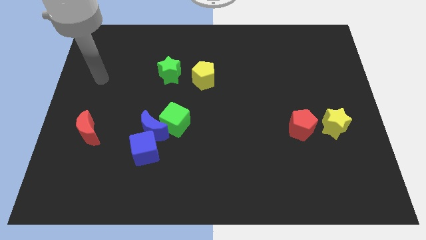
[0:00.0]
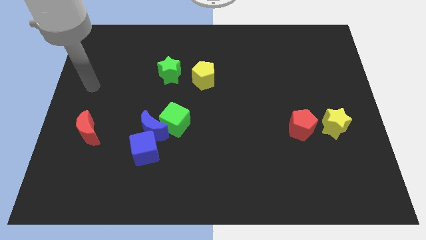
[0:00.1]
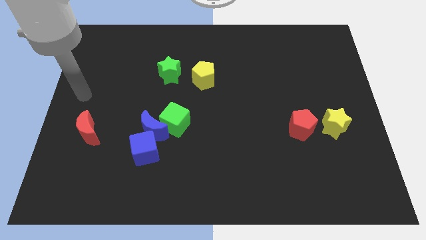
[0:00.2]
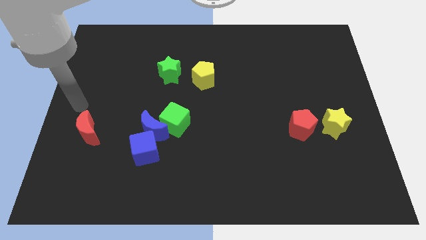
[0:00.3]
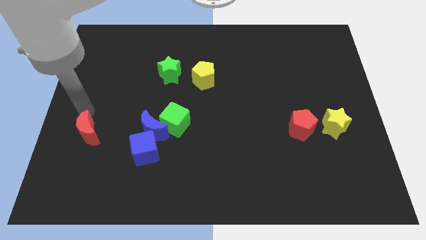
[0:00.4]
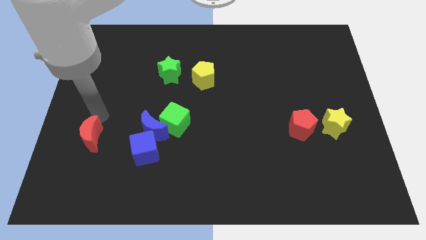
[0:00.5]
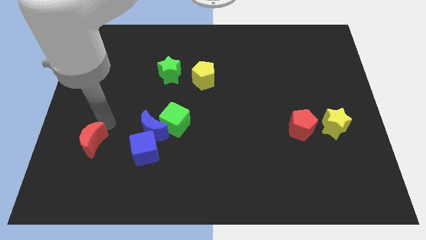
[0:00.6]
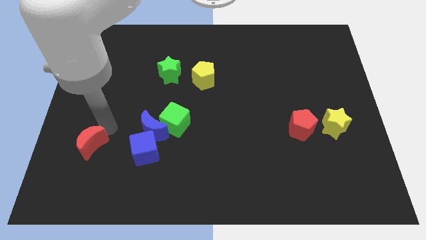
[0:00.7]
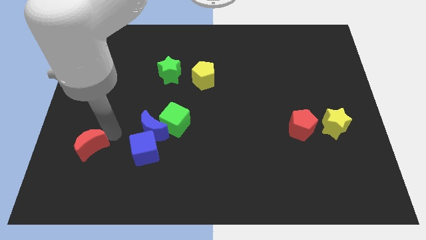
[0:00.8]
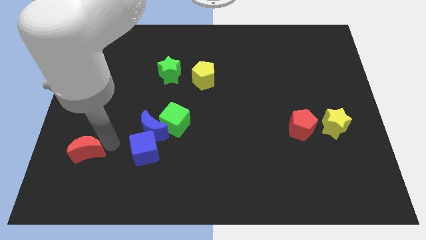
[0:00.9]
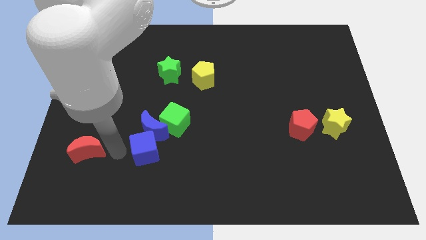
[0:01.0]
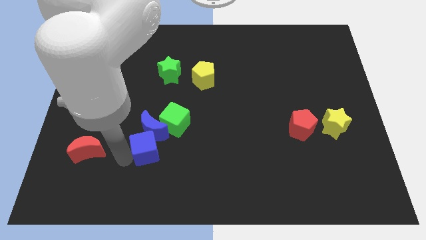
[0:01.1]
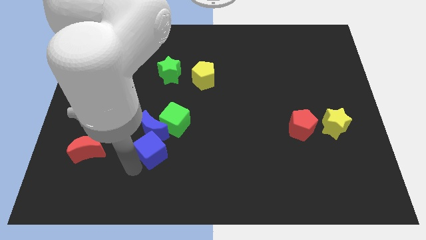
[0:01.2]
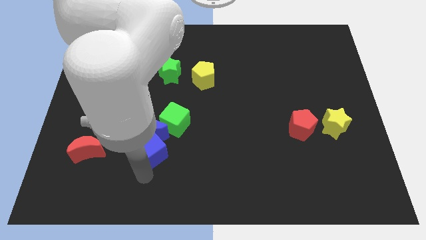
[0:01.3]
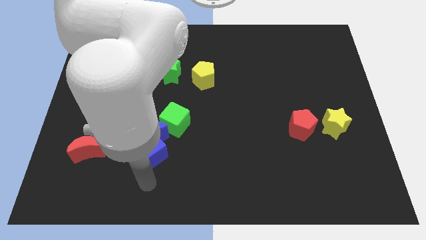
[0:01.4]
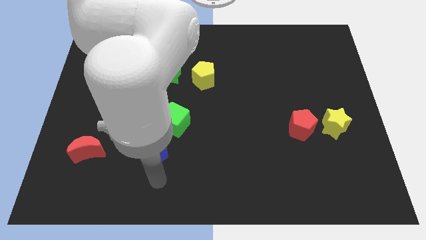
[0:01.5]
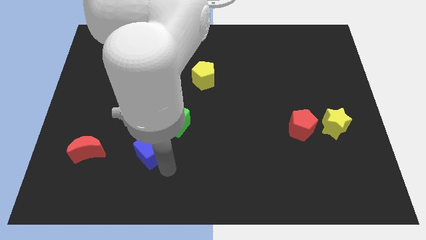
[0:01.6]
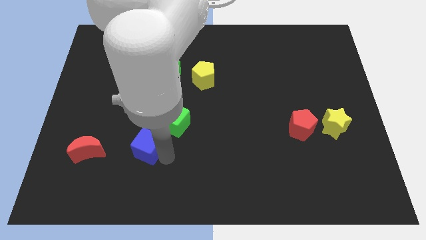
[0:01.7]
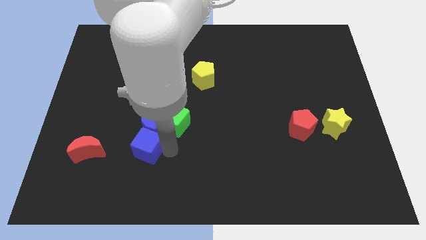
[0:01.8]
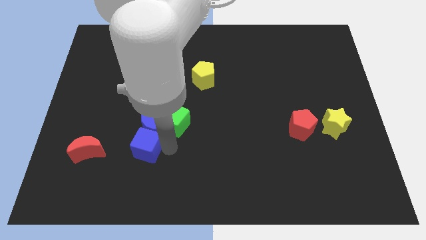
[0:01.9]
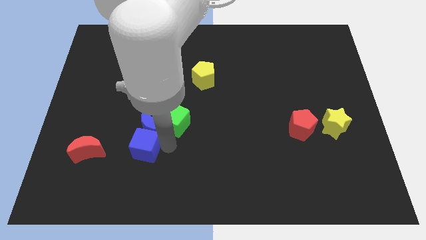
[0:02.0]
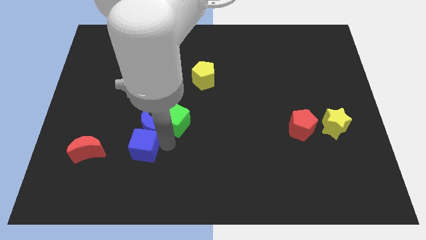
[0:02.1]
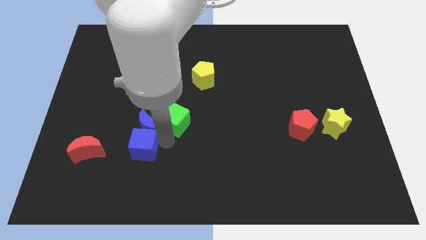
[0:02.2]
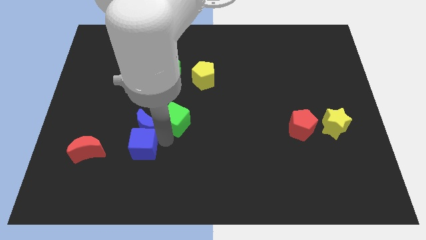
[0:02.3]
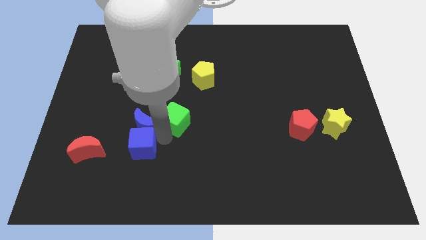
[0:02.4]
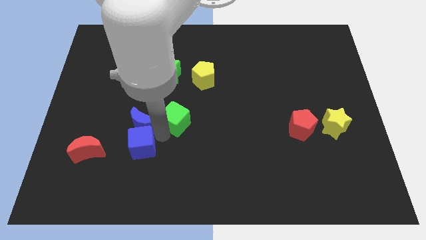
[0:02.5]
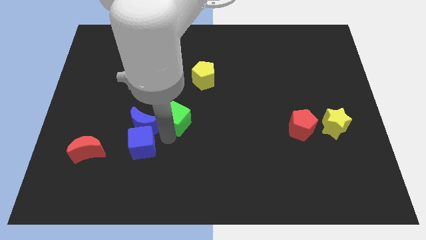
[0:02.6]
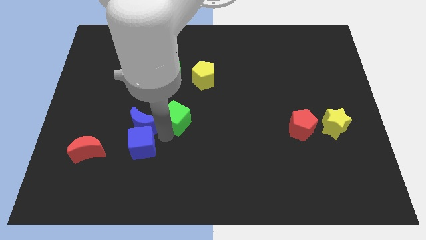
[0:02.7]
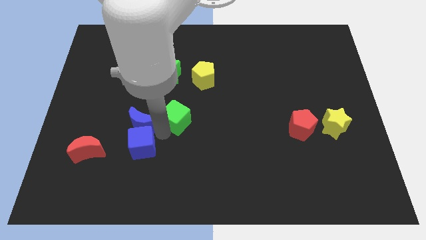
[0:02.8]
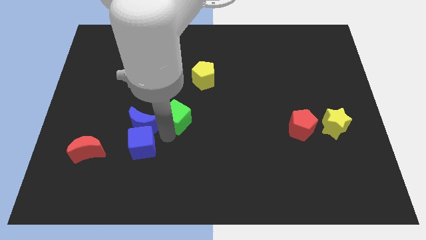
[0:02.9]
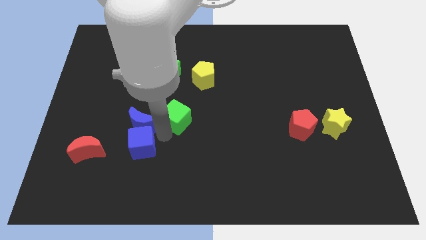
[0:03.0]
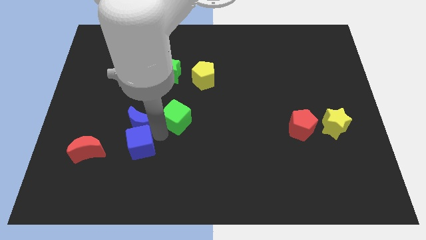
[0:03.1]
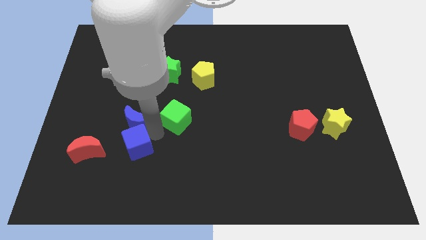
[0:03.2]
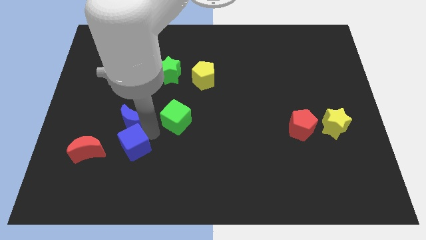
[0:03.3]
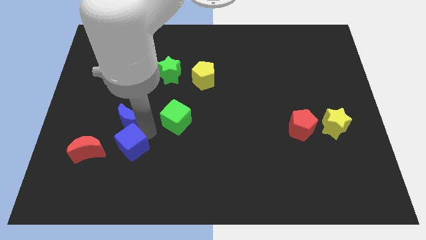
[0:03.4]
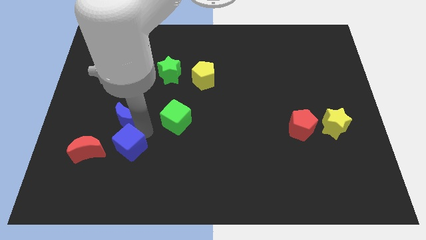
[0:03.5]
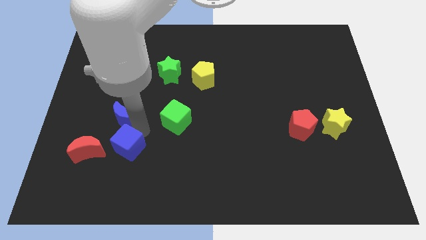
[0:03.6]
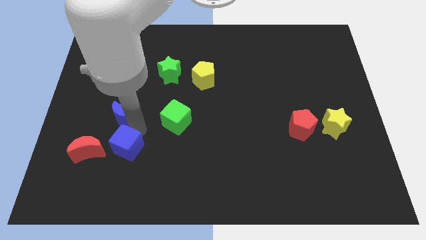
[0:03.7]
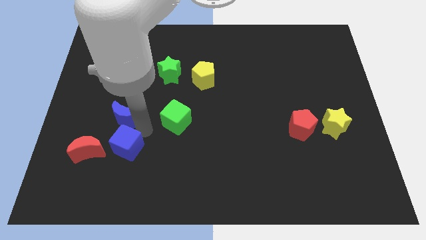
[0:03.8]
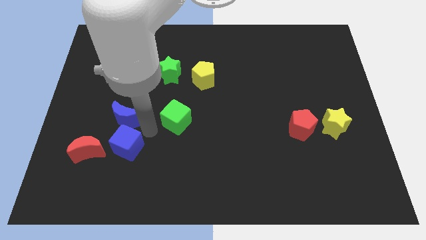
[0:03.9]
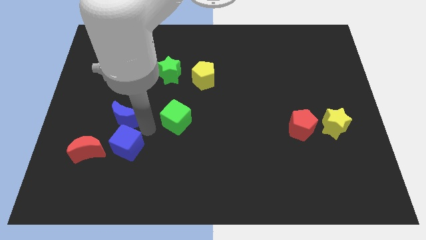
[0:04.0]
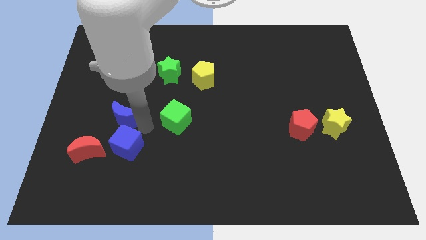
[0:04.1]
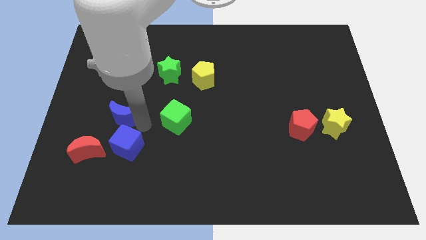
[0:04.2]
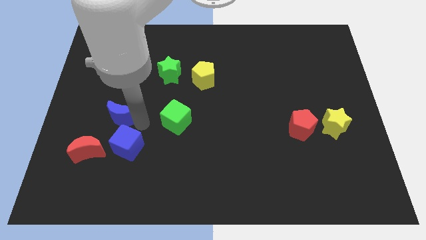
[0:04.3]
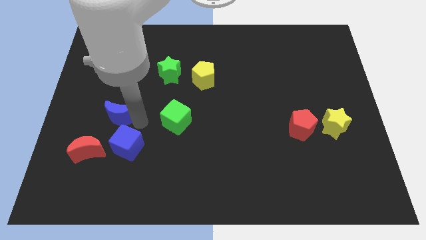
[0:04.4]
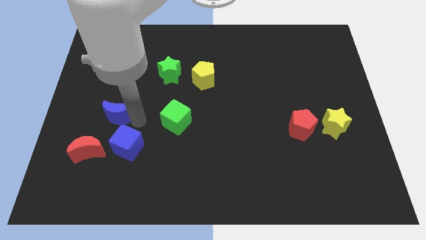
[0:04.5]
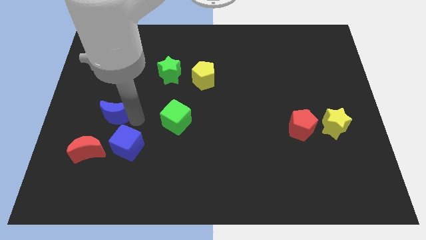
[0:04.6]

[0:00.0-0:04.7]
separate the blue moon from the green cube and blue cube

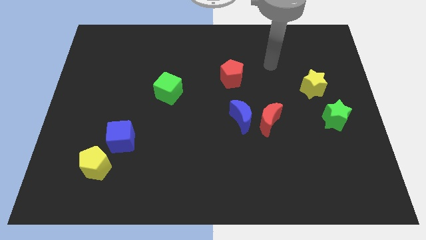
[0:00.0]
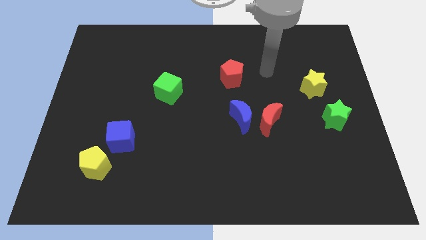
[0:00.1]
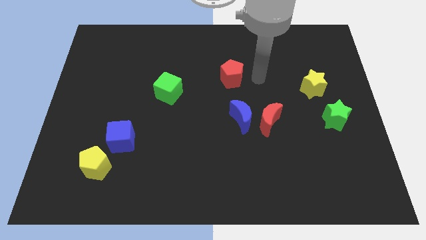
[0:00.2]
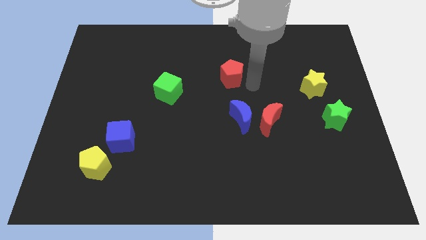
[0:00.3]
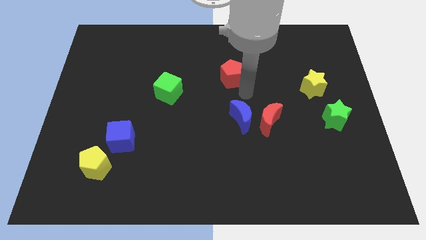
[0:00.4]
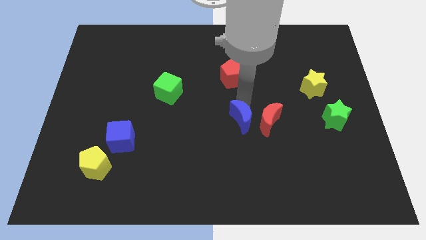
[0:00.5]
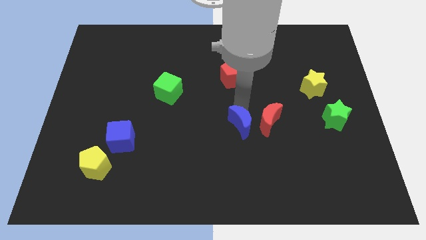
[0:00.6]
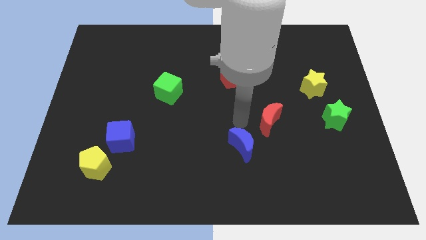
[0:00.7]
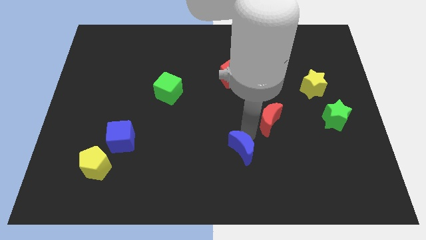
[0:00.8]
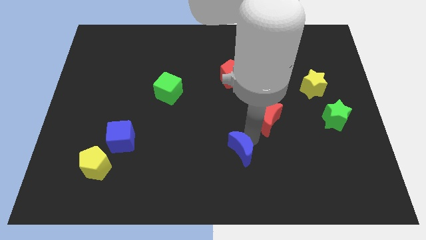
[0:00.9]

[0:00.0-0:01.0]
separate the red moon from the blue moon

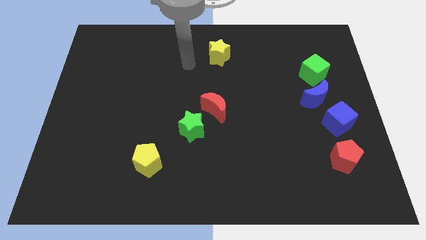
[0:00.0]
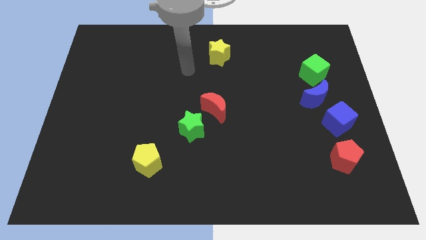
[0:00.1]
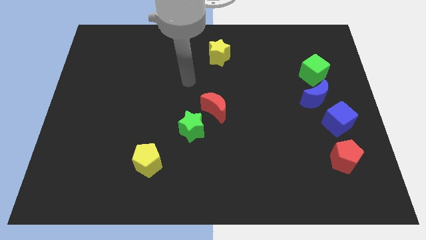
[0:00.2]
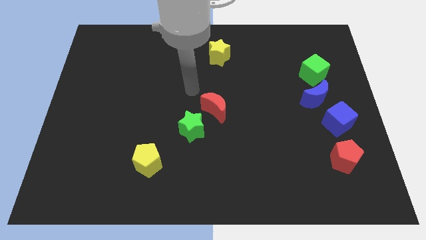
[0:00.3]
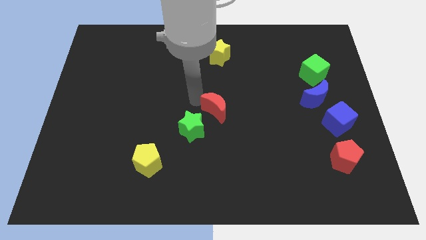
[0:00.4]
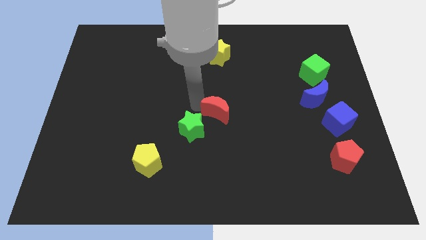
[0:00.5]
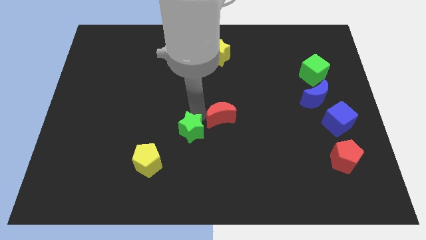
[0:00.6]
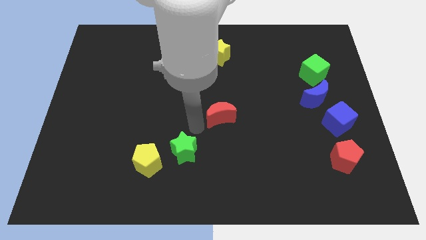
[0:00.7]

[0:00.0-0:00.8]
separate the red moon from the green star

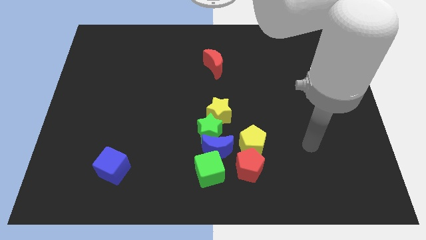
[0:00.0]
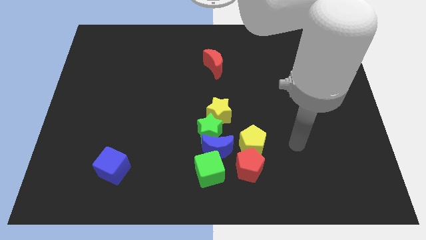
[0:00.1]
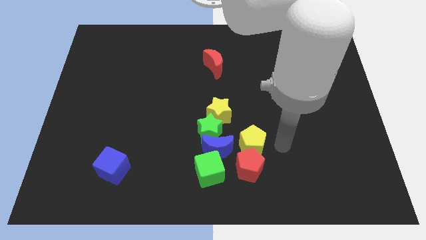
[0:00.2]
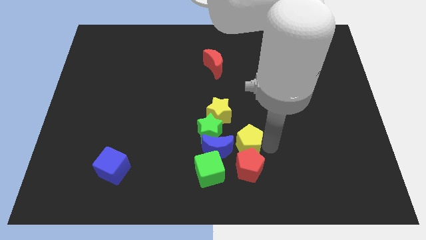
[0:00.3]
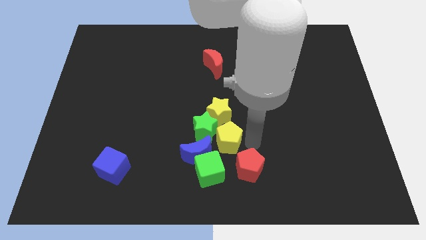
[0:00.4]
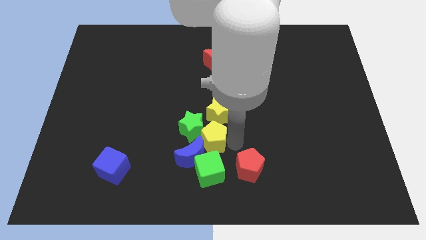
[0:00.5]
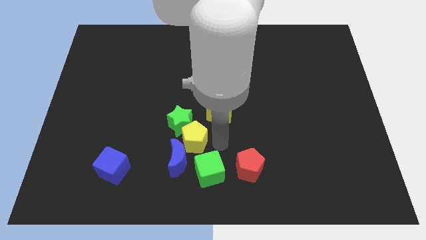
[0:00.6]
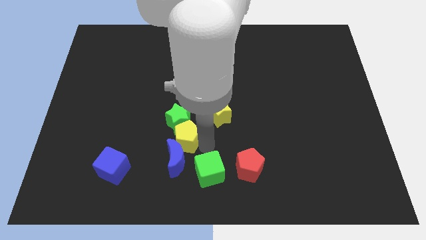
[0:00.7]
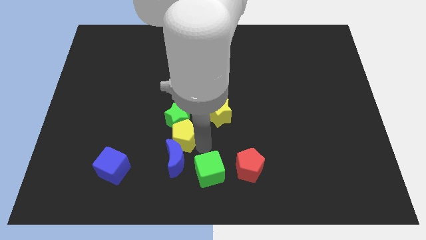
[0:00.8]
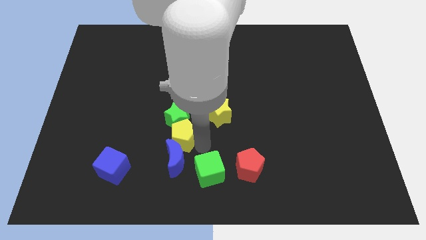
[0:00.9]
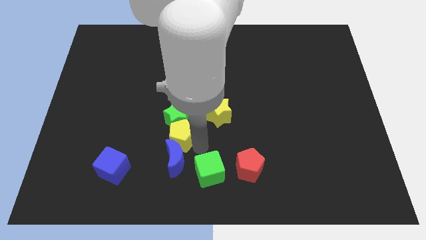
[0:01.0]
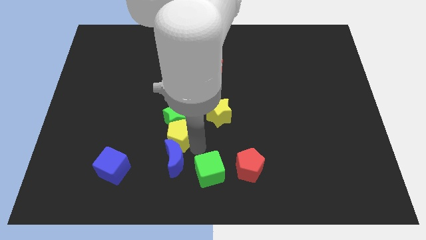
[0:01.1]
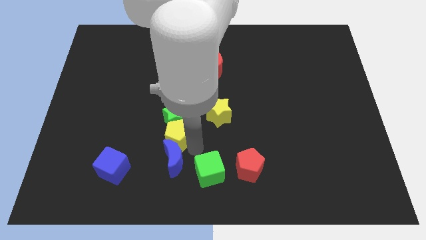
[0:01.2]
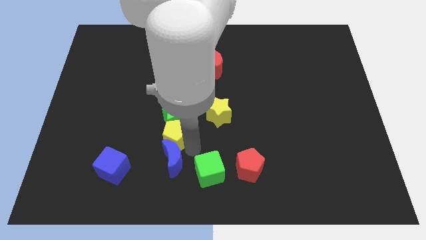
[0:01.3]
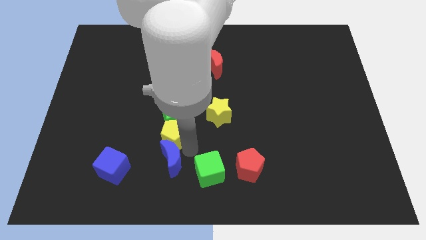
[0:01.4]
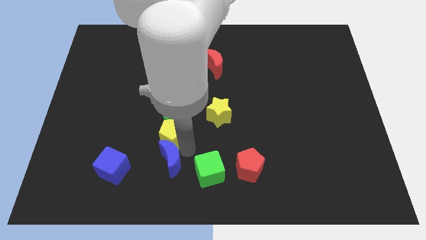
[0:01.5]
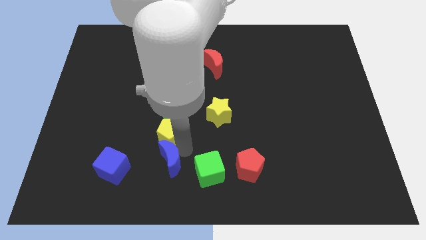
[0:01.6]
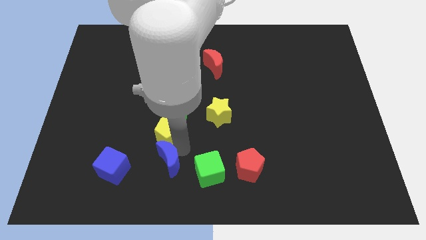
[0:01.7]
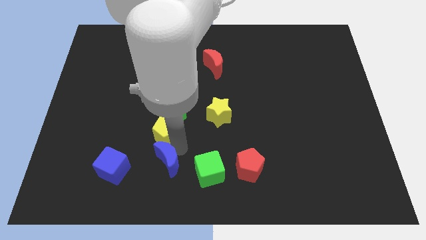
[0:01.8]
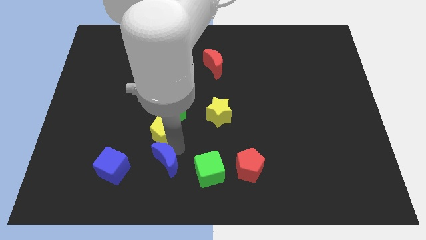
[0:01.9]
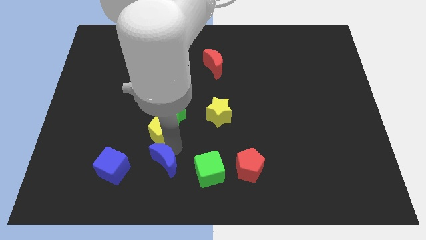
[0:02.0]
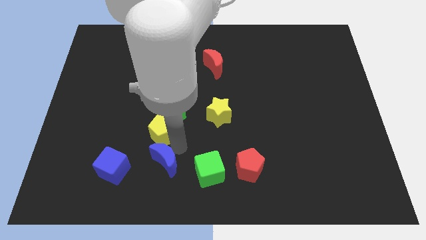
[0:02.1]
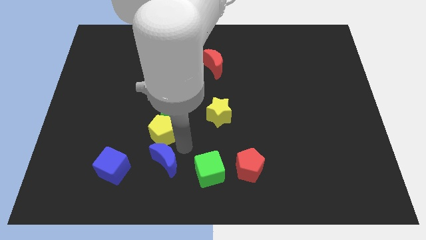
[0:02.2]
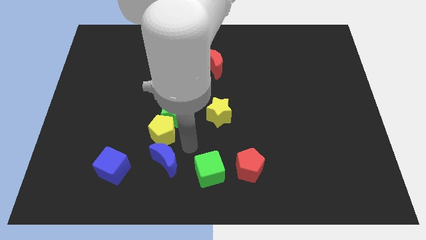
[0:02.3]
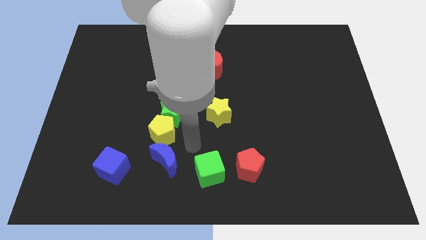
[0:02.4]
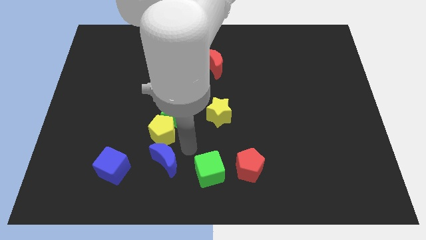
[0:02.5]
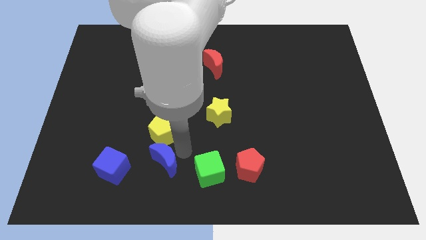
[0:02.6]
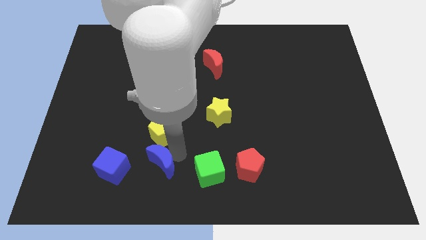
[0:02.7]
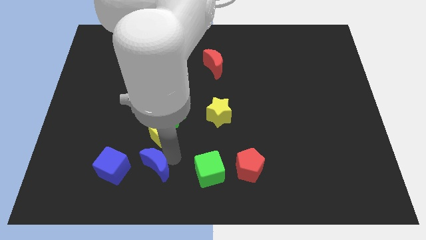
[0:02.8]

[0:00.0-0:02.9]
separate the blue moon from the group

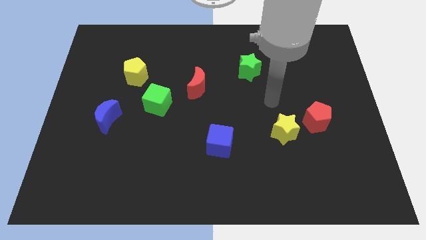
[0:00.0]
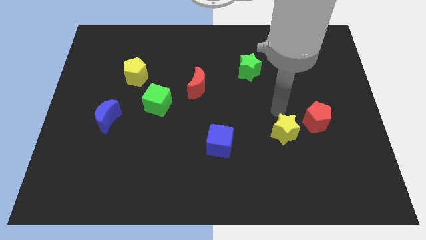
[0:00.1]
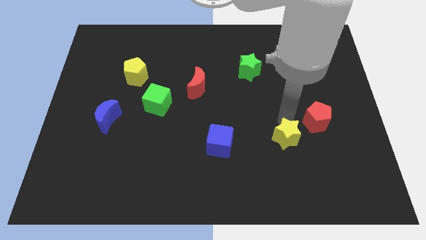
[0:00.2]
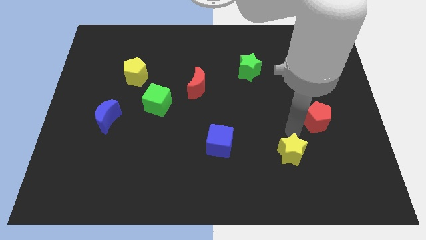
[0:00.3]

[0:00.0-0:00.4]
pull the red pentagon apart from the yellow star
